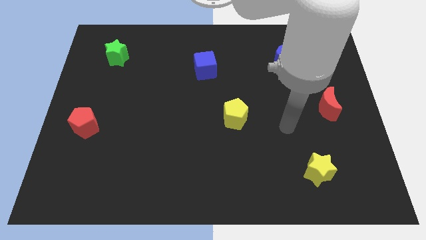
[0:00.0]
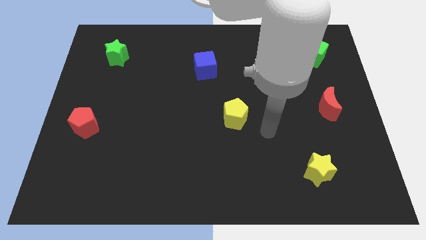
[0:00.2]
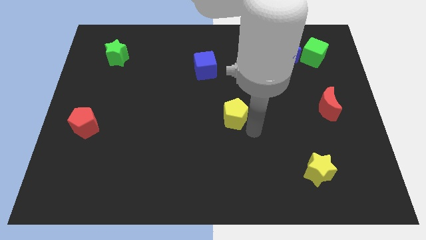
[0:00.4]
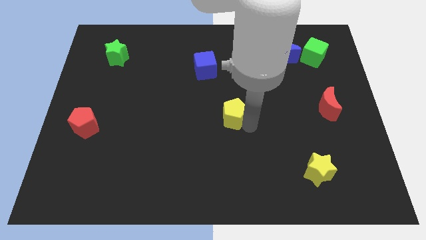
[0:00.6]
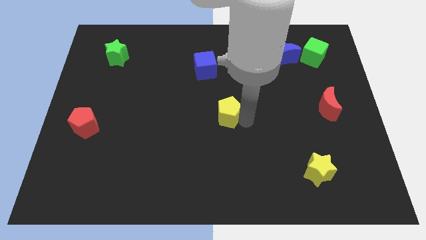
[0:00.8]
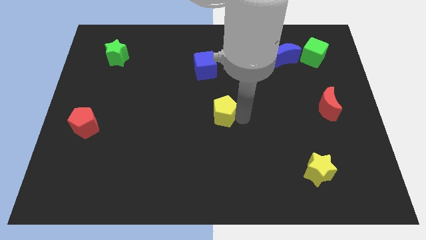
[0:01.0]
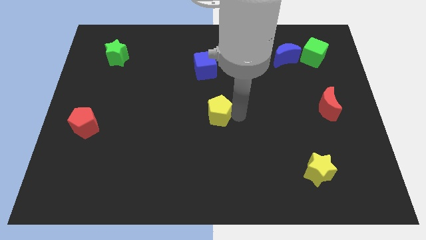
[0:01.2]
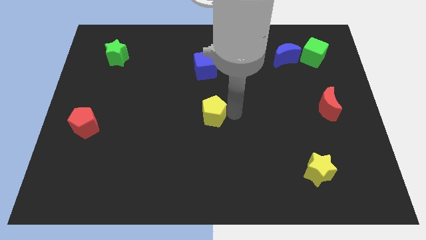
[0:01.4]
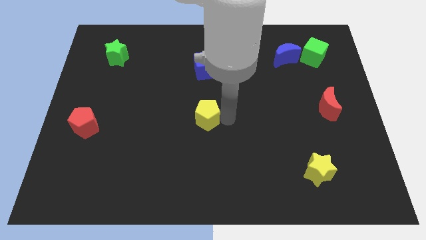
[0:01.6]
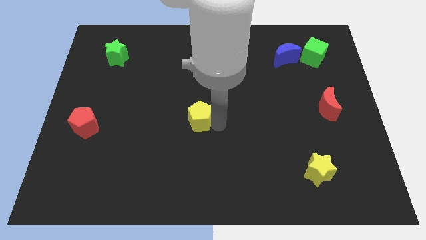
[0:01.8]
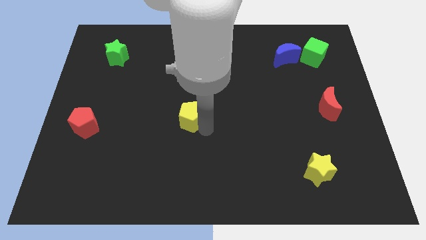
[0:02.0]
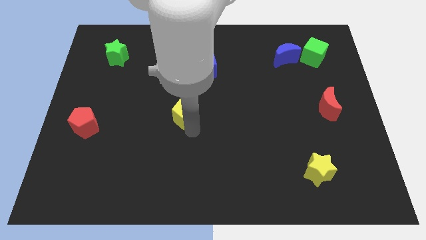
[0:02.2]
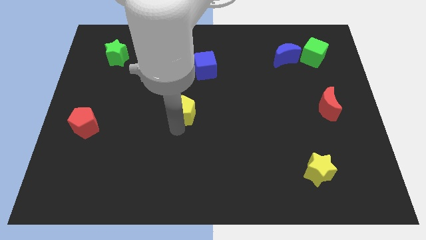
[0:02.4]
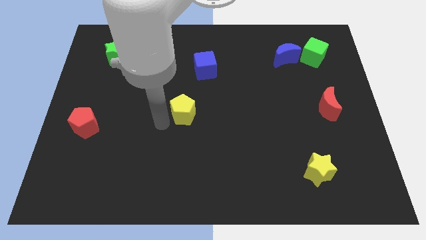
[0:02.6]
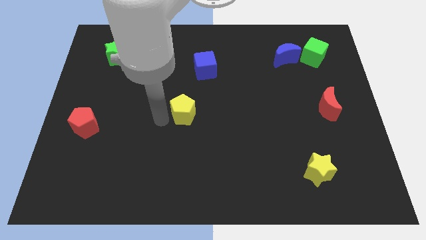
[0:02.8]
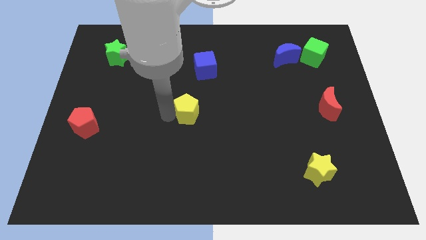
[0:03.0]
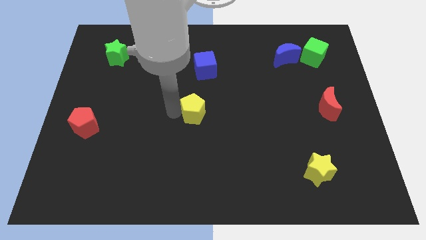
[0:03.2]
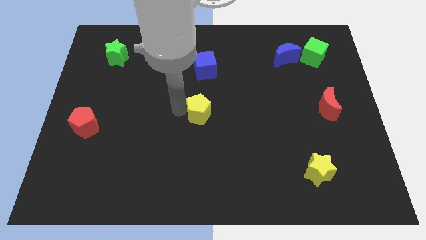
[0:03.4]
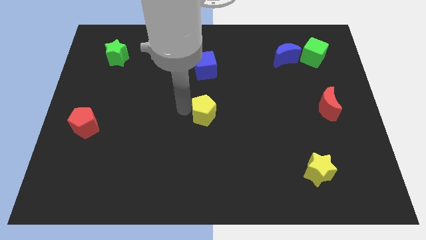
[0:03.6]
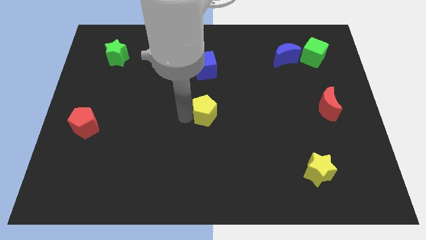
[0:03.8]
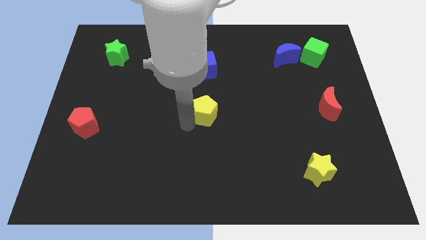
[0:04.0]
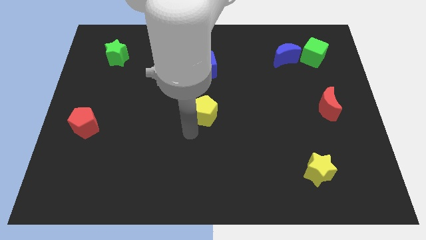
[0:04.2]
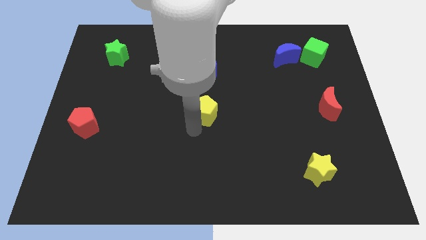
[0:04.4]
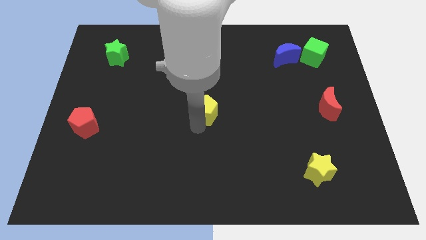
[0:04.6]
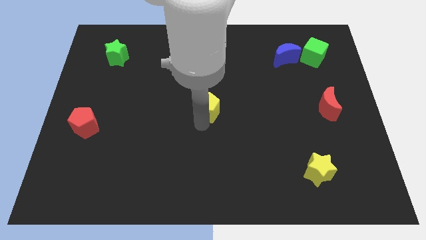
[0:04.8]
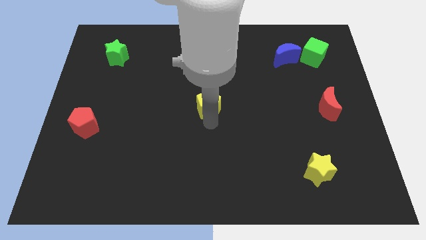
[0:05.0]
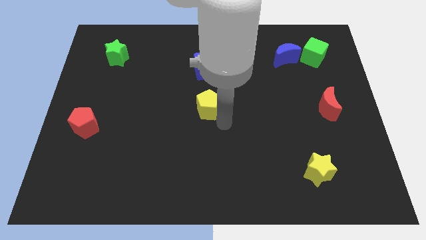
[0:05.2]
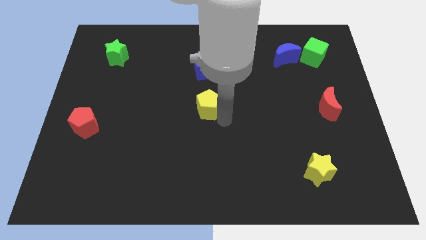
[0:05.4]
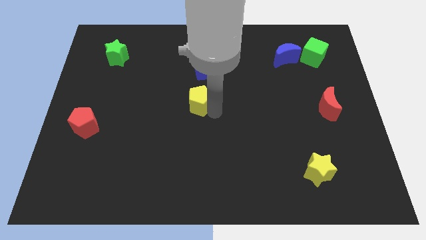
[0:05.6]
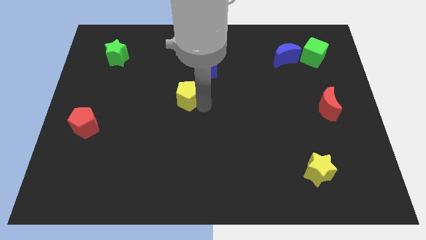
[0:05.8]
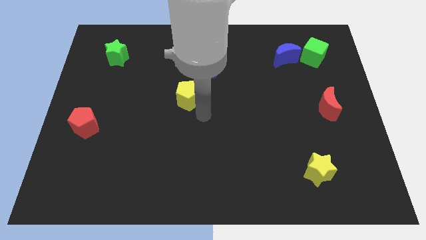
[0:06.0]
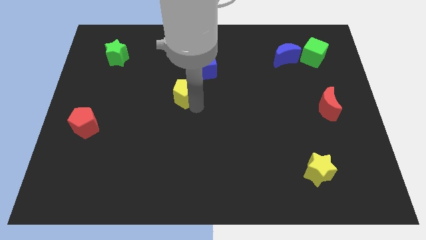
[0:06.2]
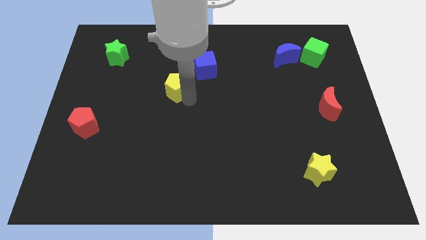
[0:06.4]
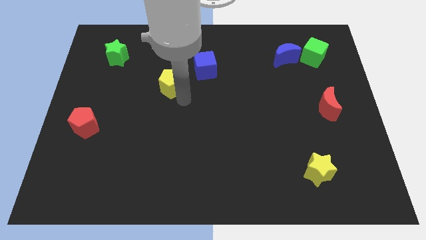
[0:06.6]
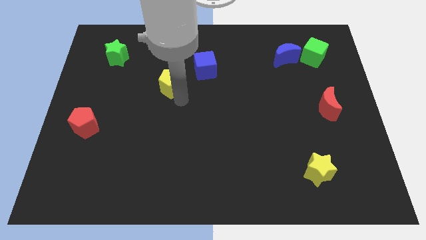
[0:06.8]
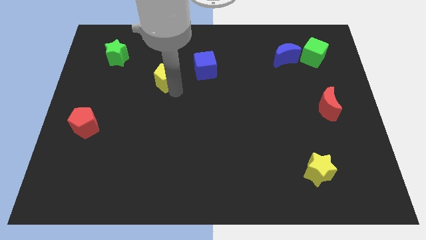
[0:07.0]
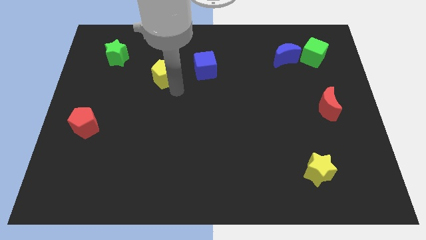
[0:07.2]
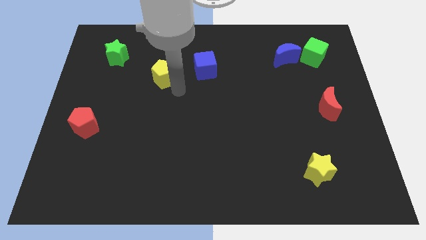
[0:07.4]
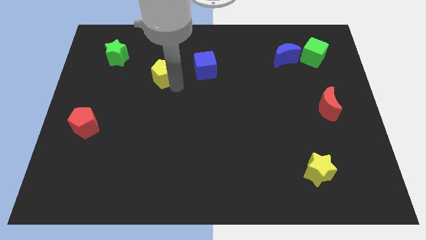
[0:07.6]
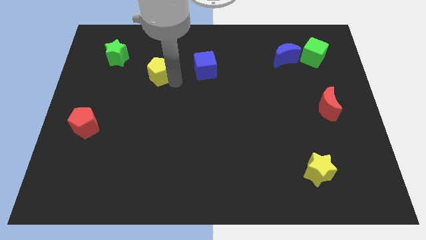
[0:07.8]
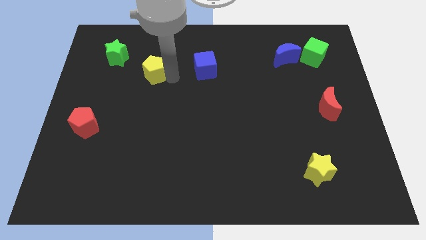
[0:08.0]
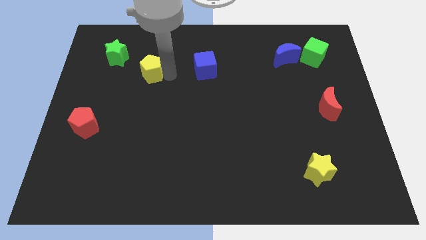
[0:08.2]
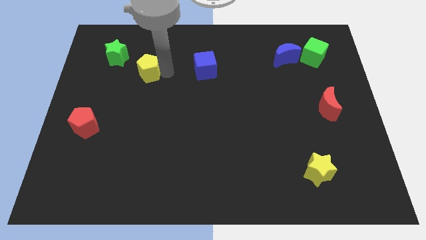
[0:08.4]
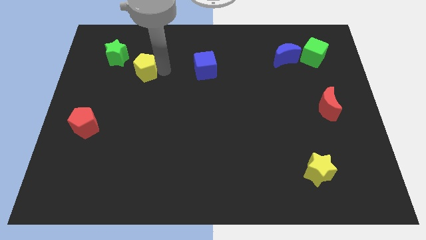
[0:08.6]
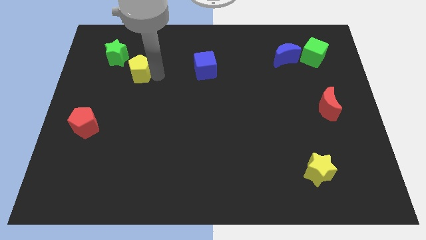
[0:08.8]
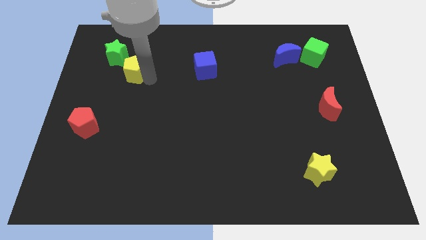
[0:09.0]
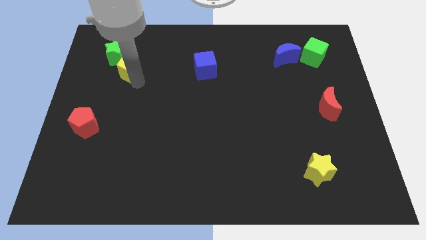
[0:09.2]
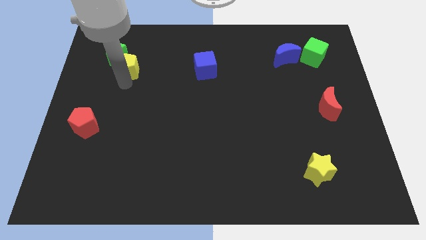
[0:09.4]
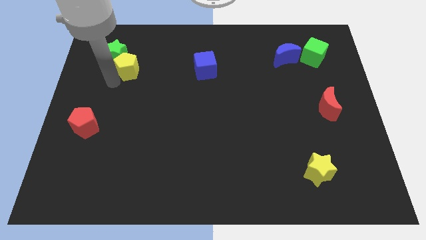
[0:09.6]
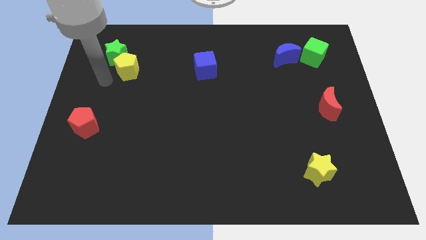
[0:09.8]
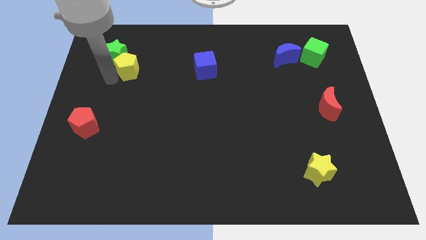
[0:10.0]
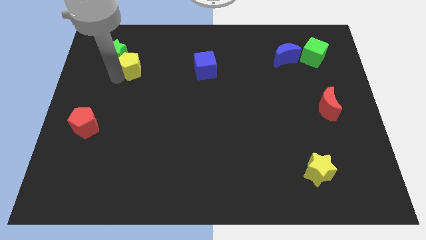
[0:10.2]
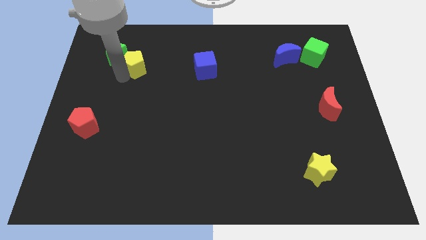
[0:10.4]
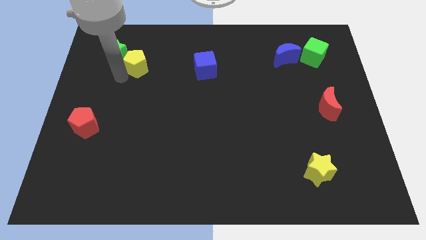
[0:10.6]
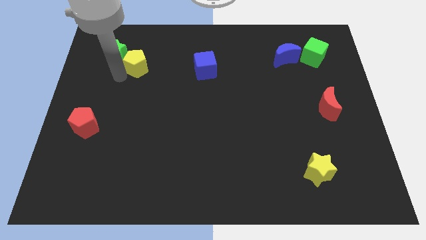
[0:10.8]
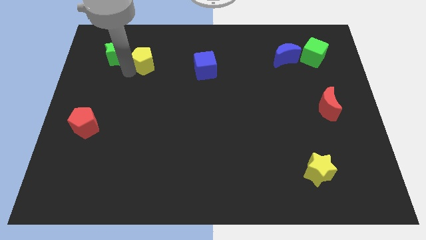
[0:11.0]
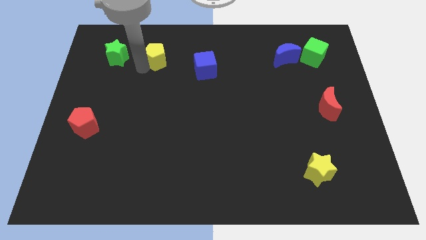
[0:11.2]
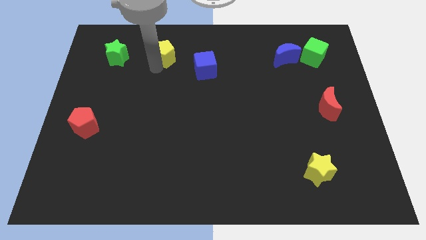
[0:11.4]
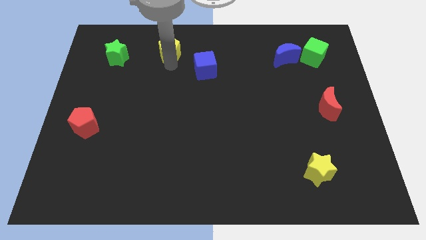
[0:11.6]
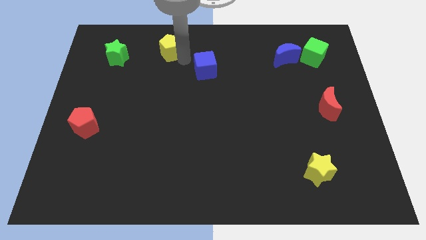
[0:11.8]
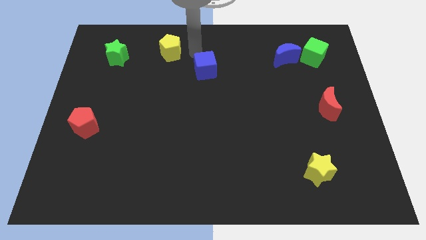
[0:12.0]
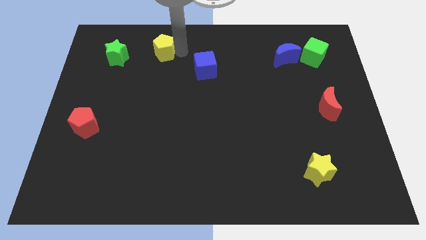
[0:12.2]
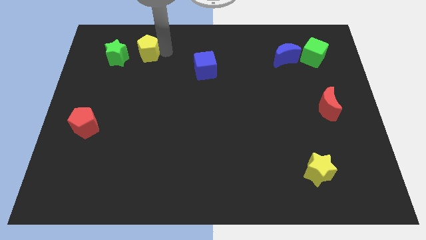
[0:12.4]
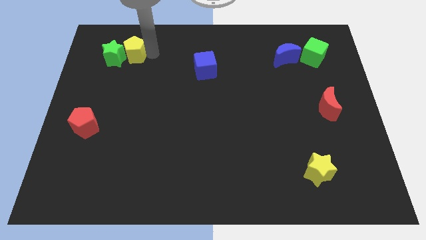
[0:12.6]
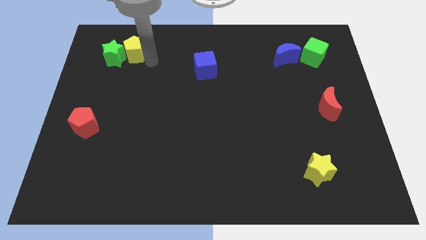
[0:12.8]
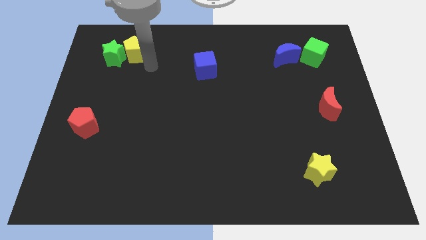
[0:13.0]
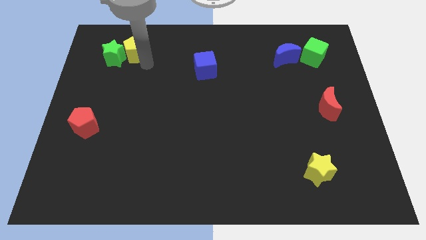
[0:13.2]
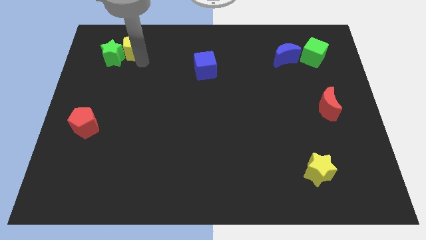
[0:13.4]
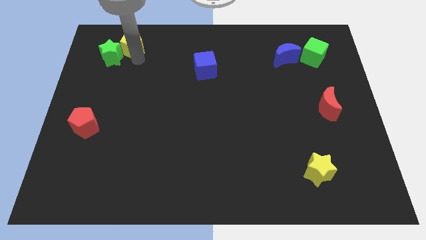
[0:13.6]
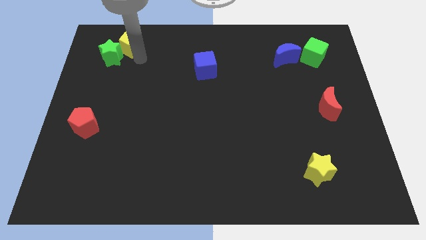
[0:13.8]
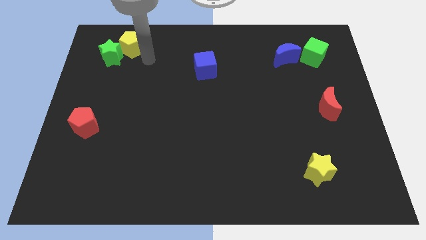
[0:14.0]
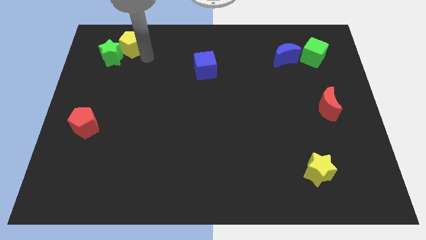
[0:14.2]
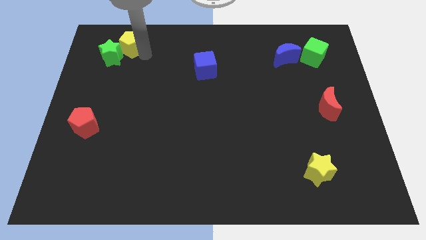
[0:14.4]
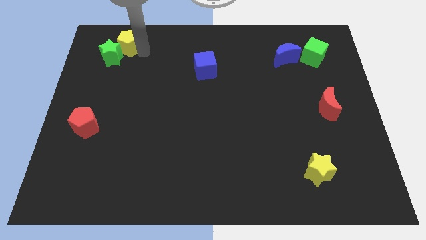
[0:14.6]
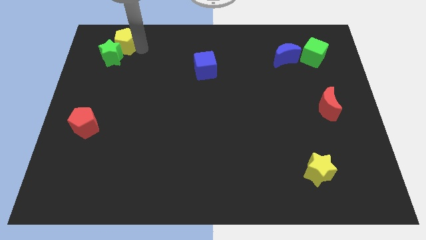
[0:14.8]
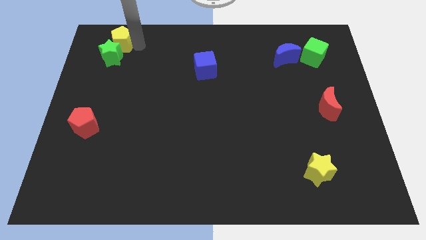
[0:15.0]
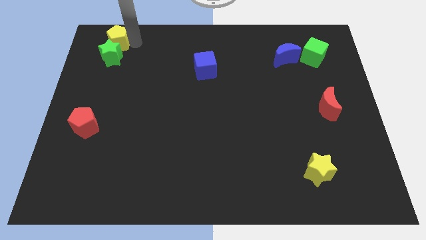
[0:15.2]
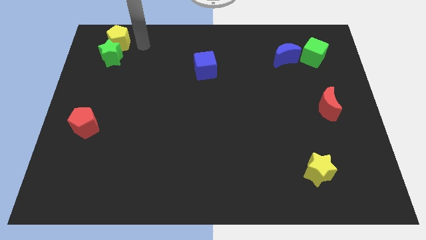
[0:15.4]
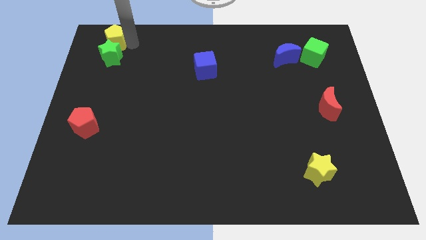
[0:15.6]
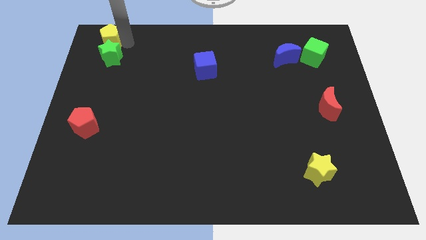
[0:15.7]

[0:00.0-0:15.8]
push the yellow pentagon to the top left of the board
